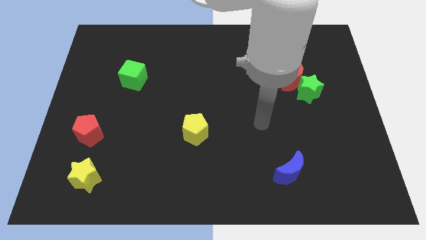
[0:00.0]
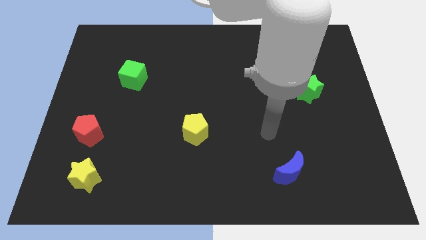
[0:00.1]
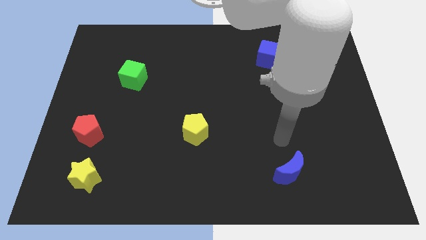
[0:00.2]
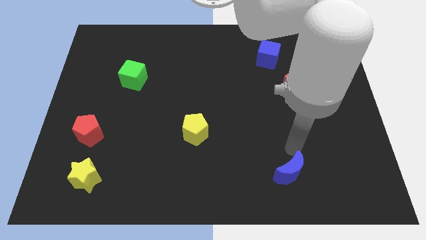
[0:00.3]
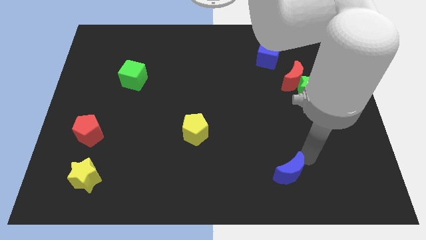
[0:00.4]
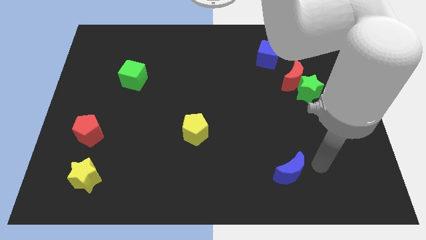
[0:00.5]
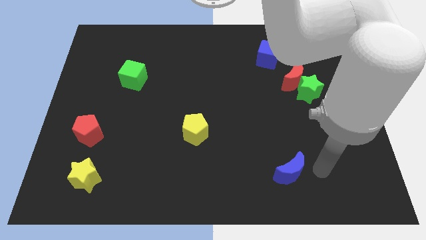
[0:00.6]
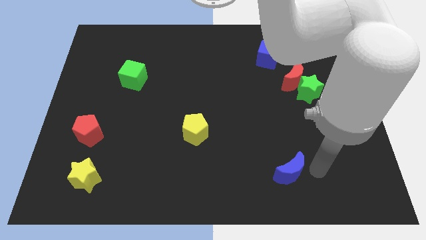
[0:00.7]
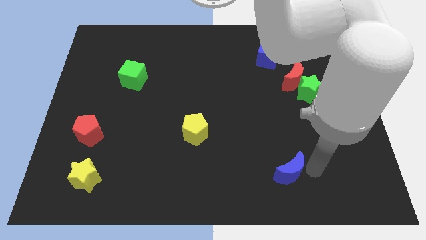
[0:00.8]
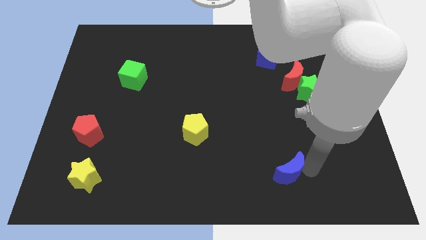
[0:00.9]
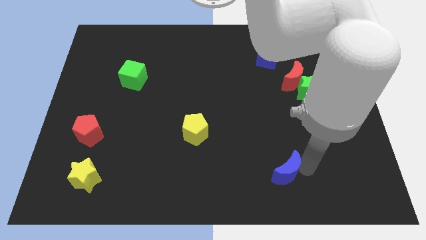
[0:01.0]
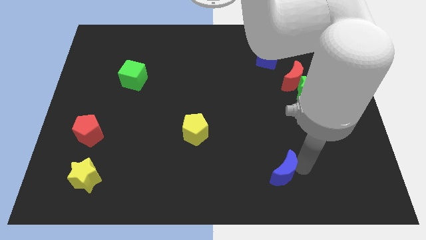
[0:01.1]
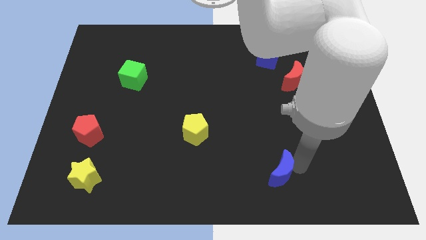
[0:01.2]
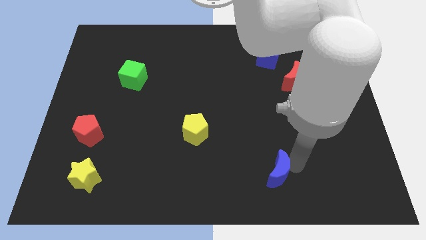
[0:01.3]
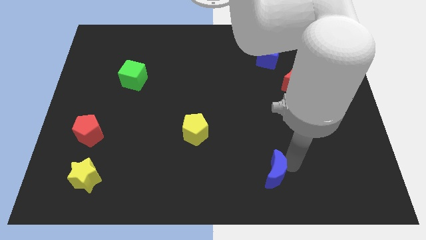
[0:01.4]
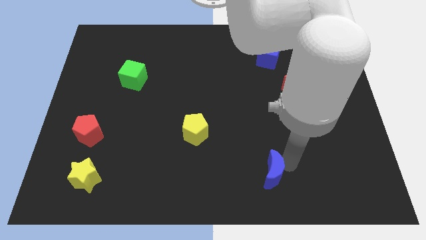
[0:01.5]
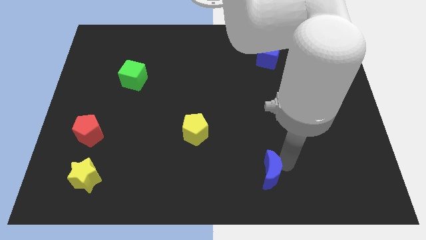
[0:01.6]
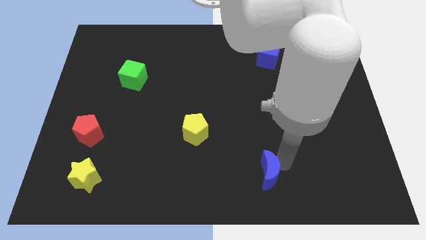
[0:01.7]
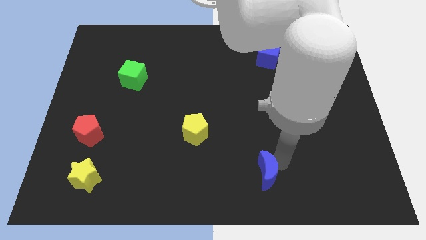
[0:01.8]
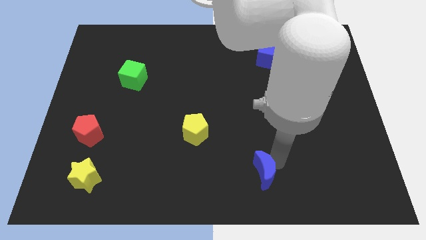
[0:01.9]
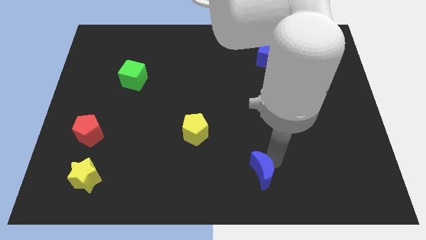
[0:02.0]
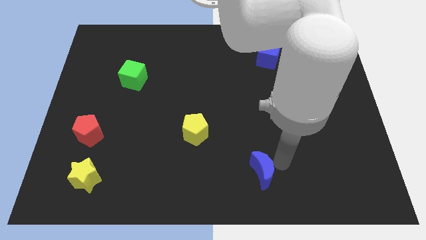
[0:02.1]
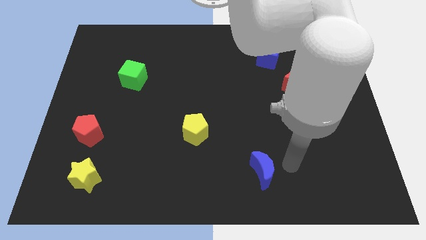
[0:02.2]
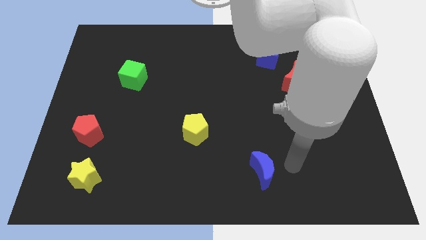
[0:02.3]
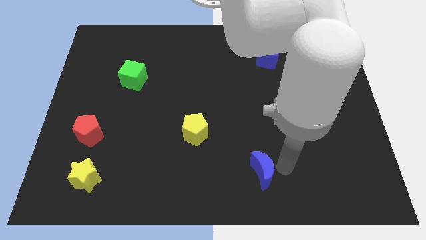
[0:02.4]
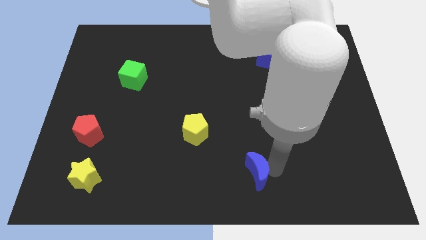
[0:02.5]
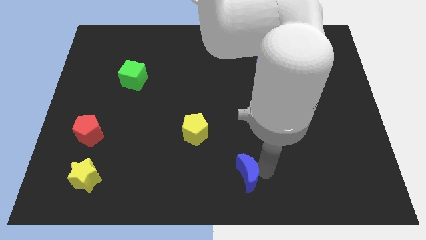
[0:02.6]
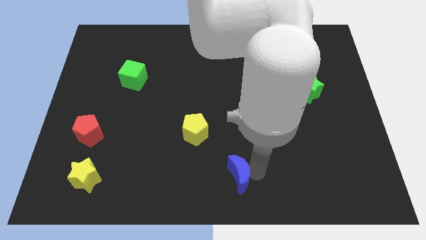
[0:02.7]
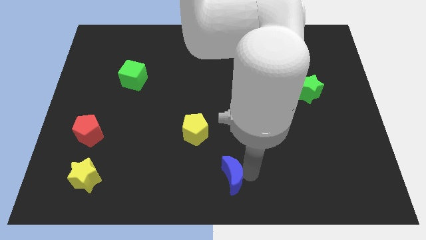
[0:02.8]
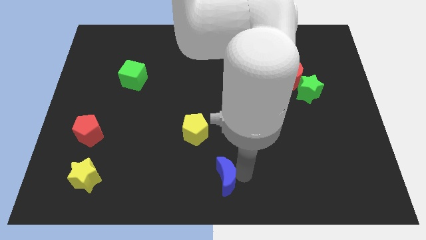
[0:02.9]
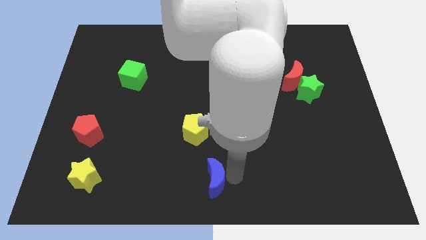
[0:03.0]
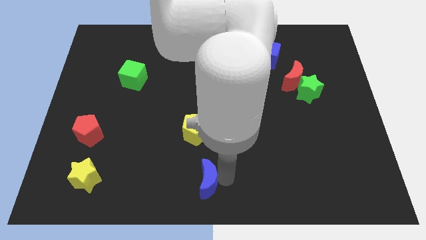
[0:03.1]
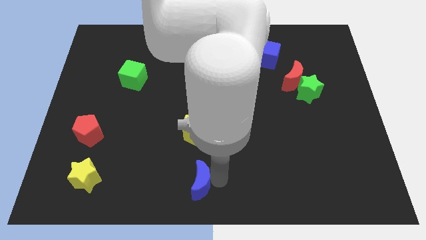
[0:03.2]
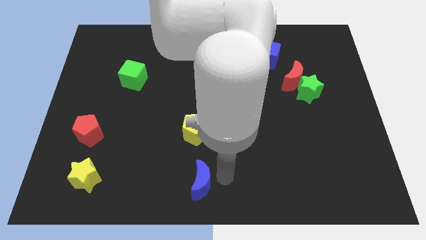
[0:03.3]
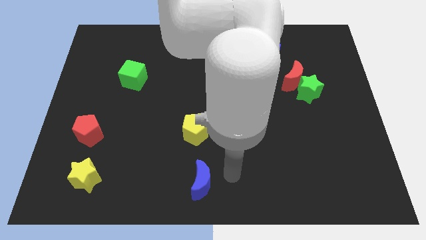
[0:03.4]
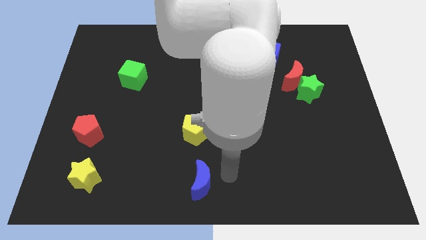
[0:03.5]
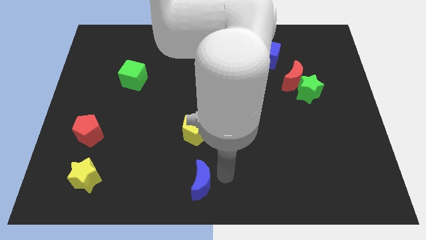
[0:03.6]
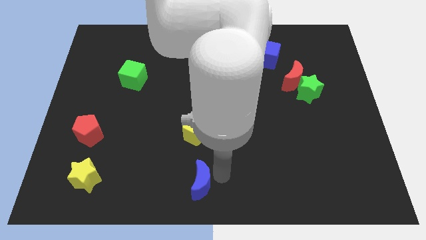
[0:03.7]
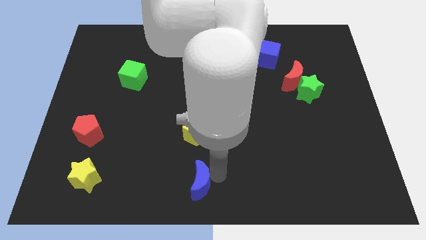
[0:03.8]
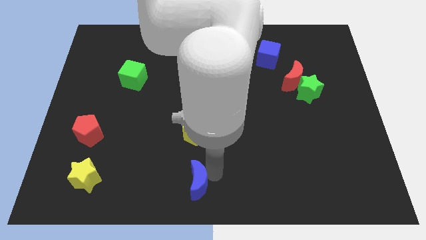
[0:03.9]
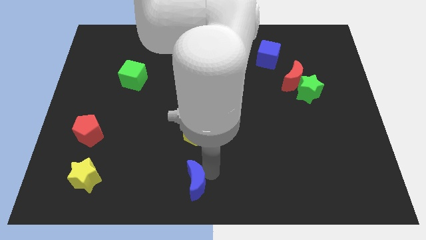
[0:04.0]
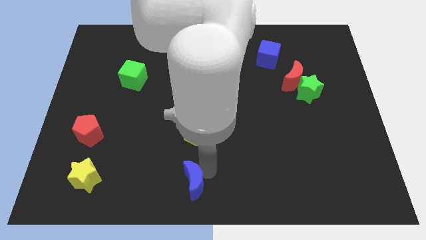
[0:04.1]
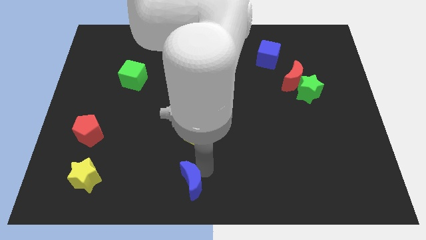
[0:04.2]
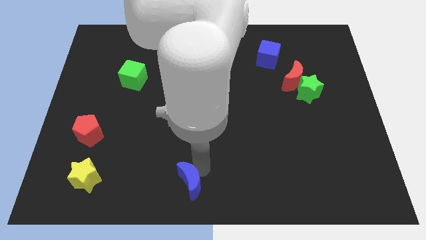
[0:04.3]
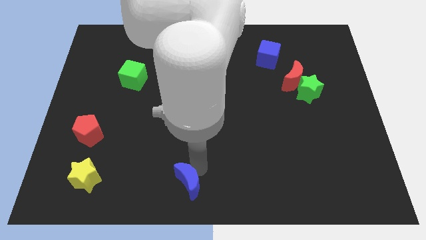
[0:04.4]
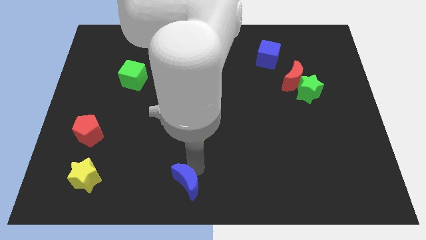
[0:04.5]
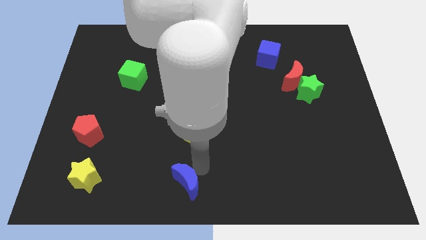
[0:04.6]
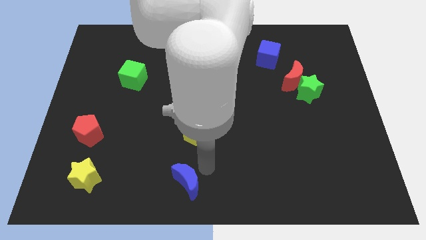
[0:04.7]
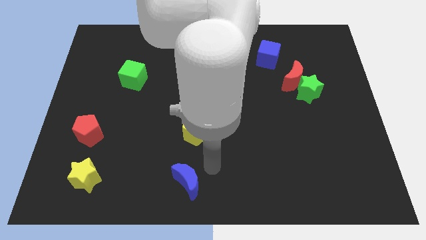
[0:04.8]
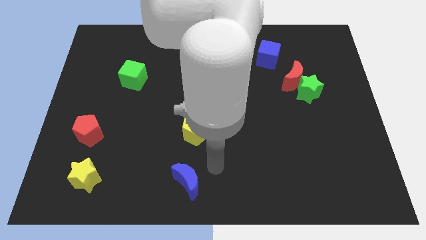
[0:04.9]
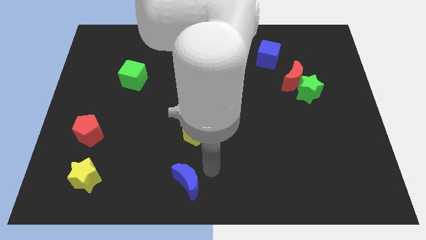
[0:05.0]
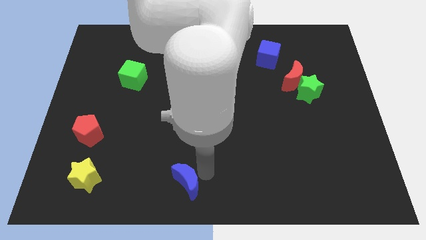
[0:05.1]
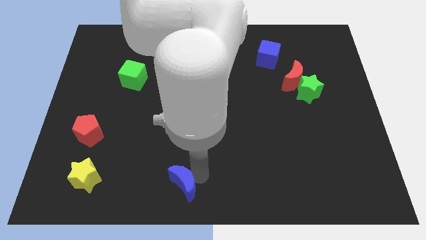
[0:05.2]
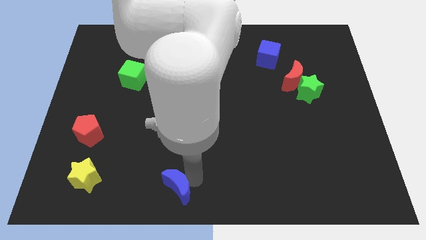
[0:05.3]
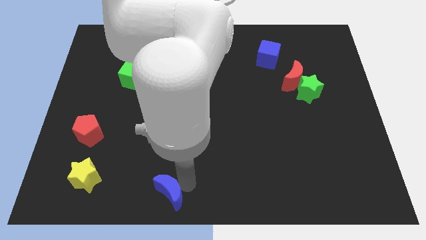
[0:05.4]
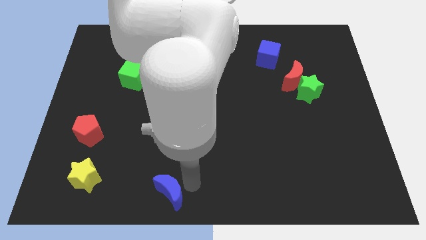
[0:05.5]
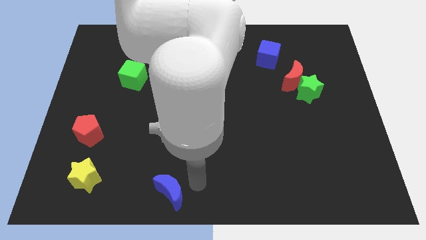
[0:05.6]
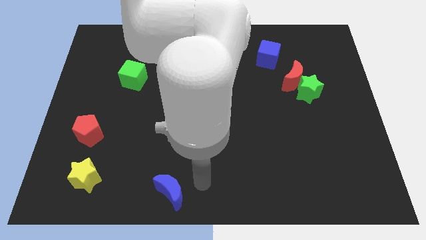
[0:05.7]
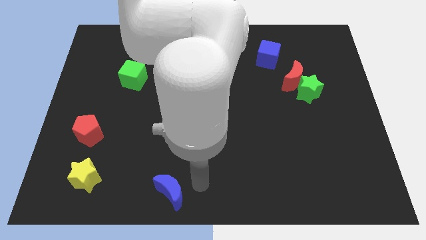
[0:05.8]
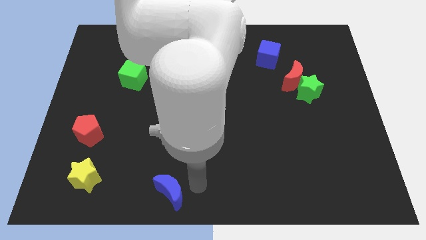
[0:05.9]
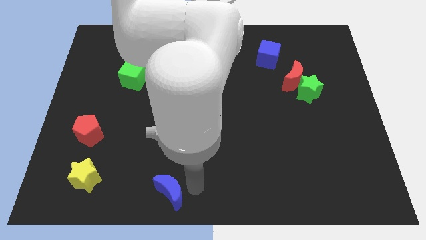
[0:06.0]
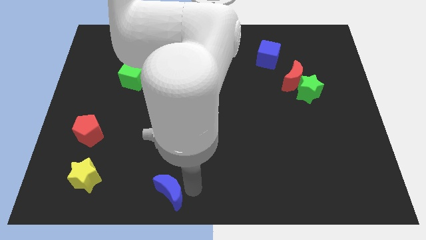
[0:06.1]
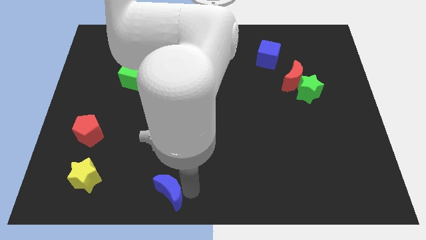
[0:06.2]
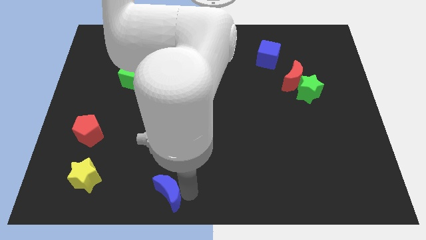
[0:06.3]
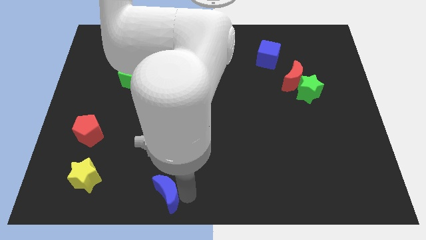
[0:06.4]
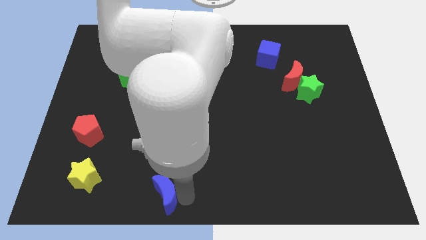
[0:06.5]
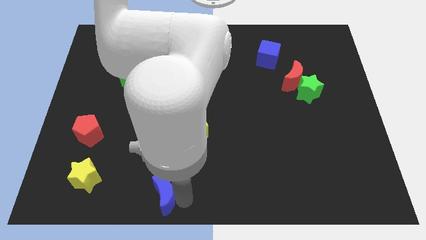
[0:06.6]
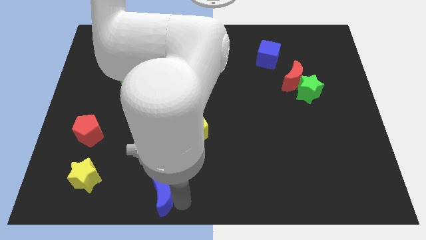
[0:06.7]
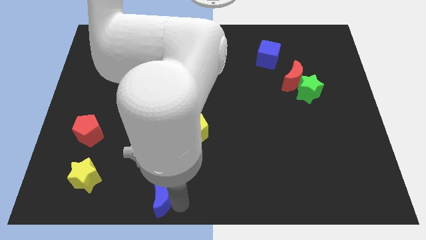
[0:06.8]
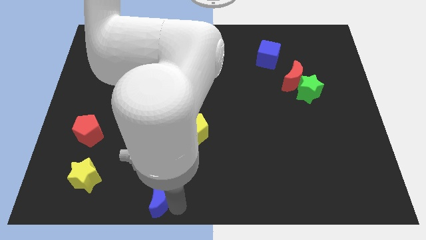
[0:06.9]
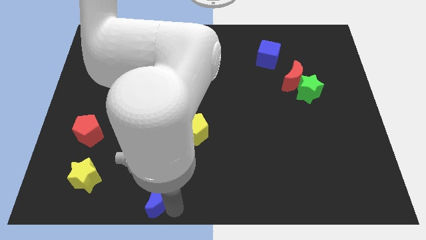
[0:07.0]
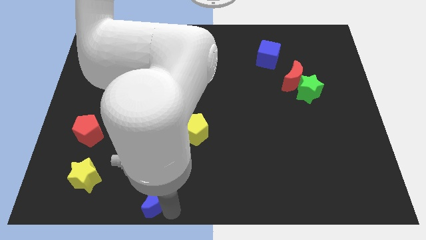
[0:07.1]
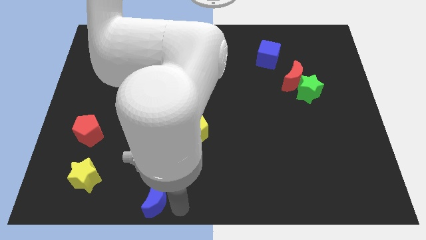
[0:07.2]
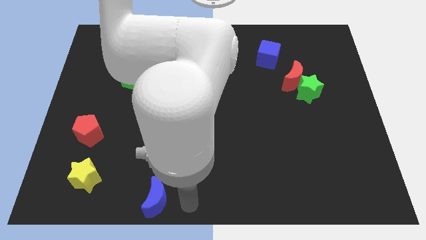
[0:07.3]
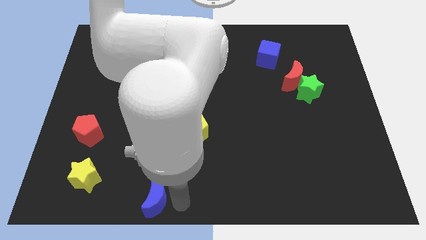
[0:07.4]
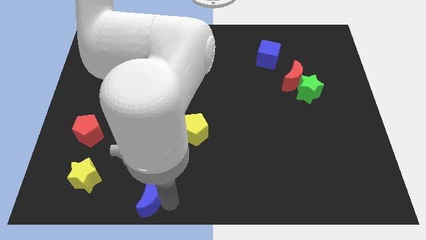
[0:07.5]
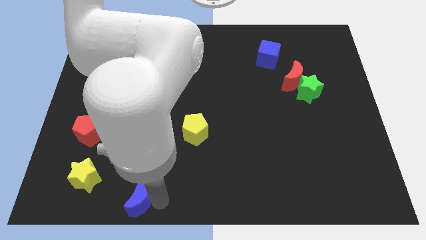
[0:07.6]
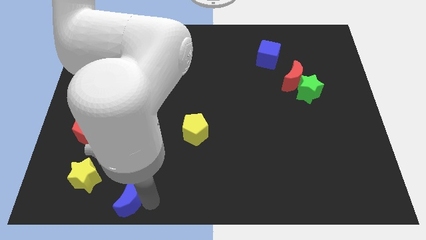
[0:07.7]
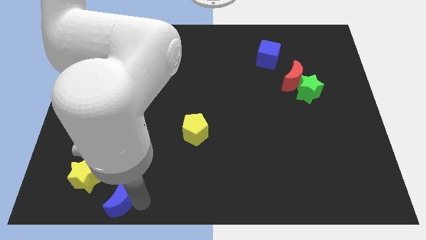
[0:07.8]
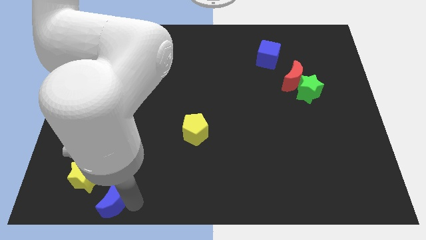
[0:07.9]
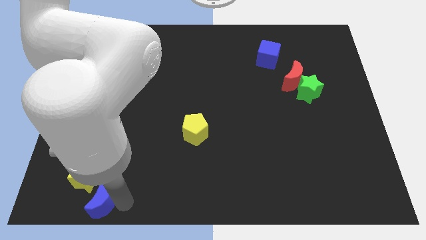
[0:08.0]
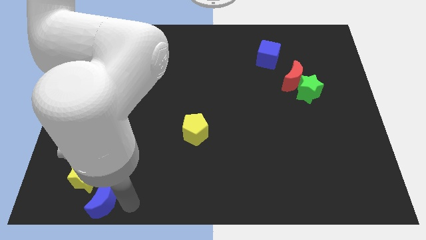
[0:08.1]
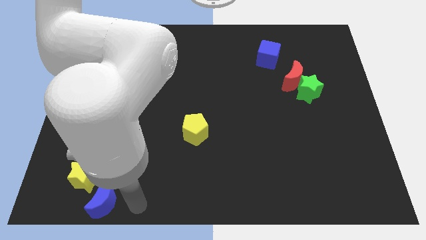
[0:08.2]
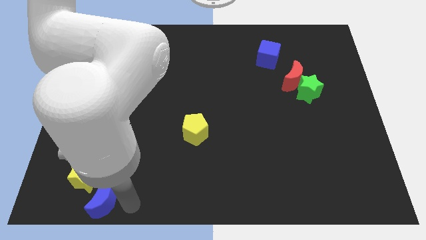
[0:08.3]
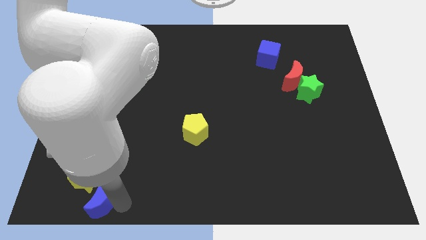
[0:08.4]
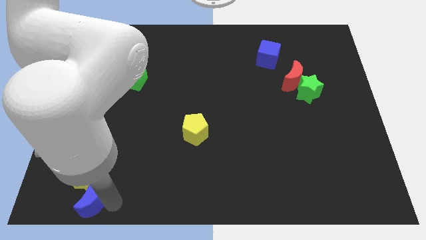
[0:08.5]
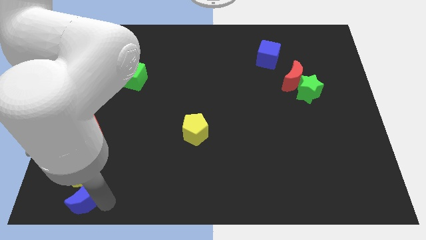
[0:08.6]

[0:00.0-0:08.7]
put the blue moon to the bottom side of the red pentagon
